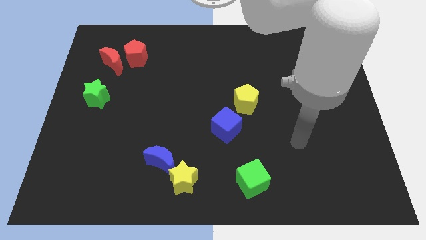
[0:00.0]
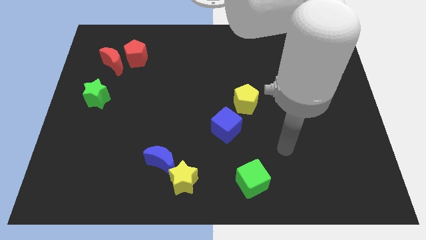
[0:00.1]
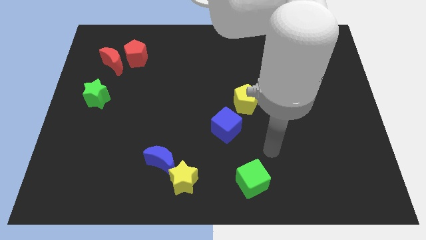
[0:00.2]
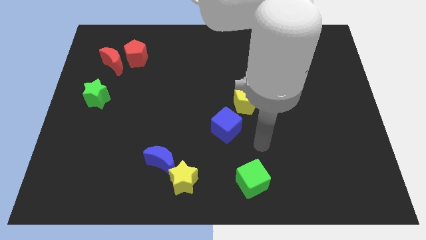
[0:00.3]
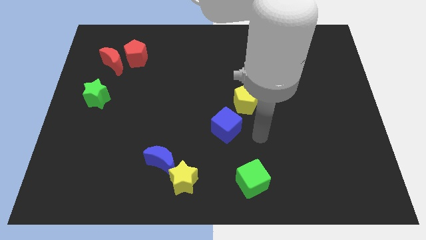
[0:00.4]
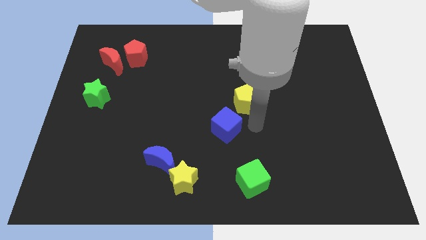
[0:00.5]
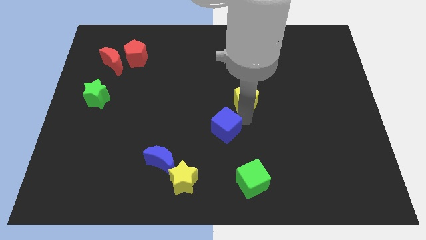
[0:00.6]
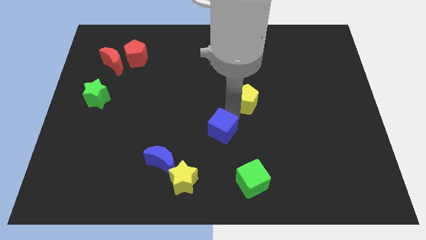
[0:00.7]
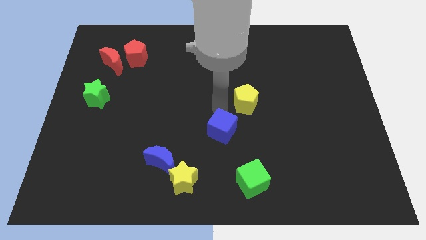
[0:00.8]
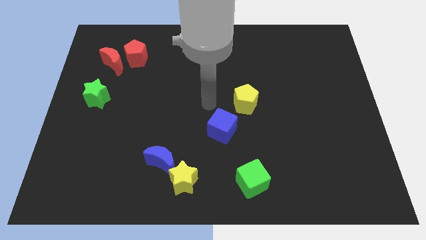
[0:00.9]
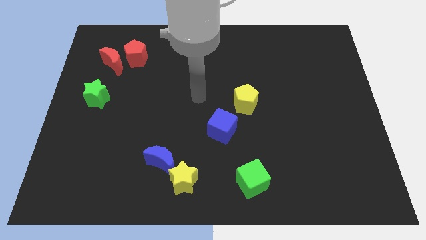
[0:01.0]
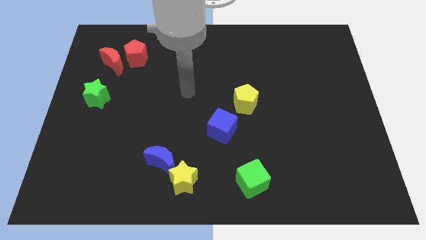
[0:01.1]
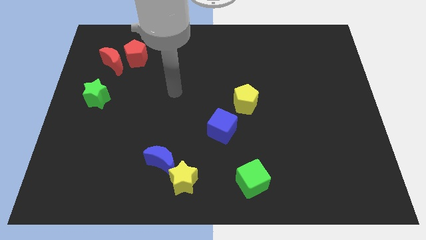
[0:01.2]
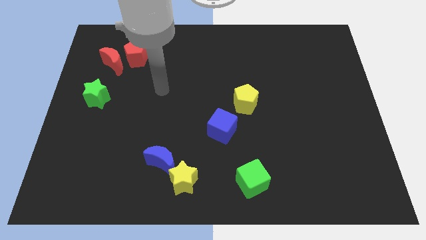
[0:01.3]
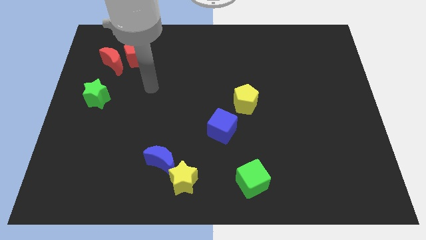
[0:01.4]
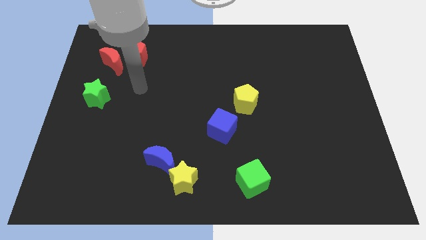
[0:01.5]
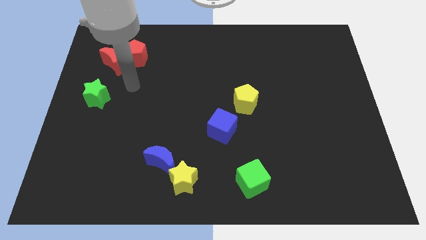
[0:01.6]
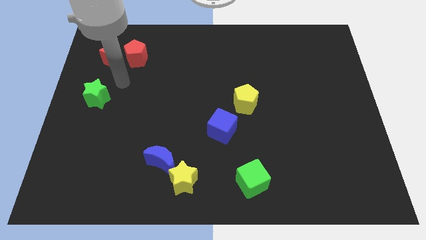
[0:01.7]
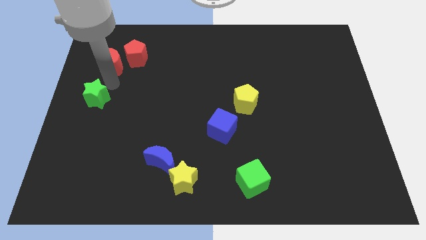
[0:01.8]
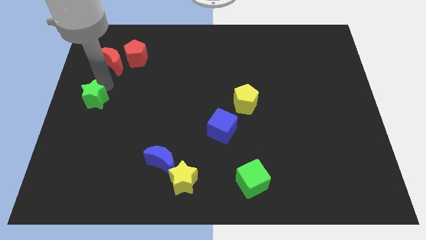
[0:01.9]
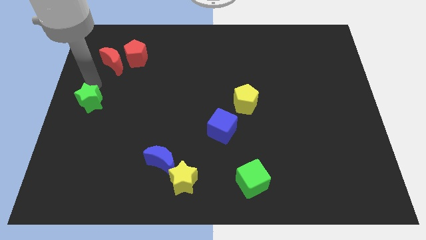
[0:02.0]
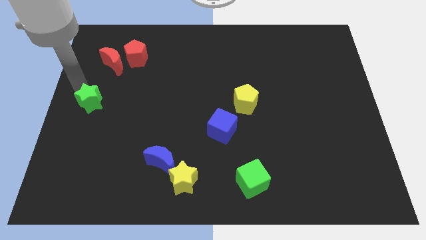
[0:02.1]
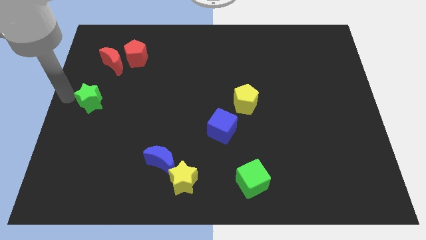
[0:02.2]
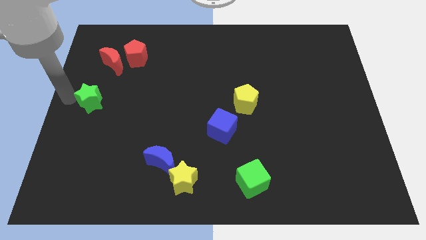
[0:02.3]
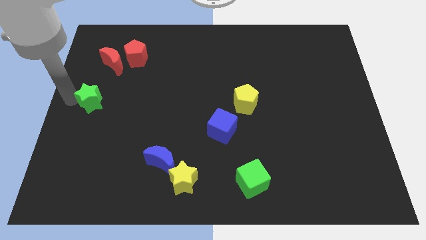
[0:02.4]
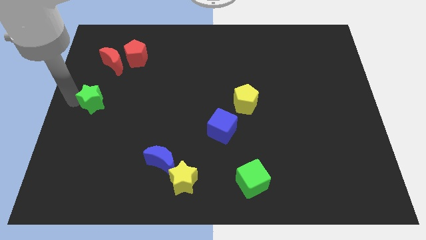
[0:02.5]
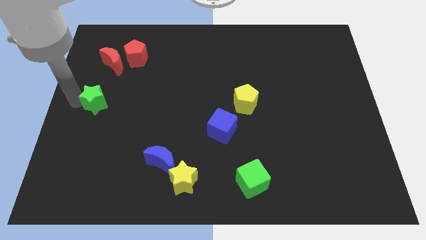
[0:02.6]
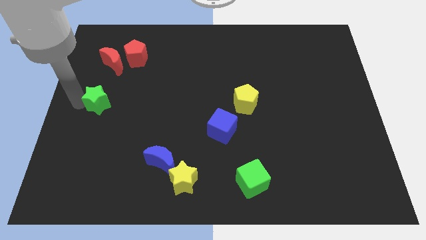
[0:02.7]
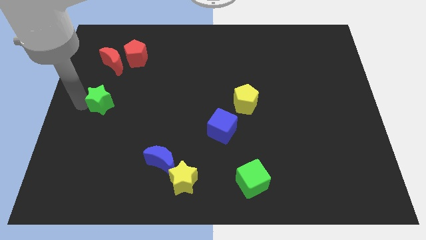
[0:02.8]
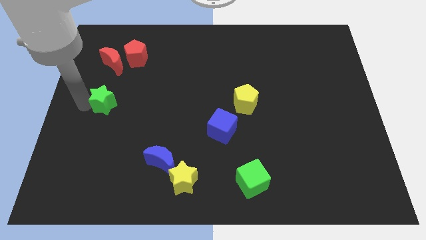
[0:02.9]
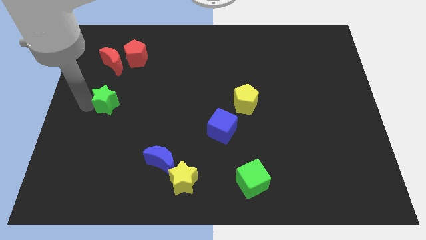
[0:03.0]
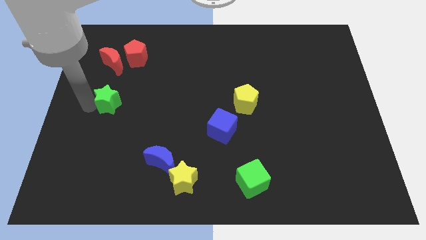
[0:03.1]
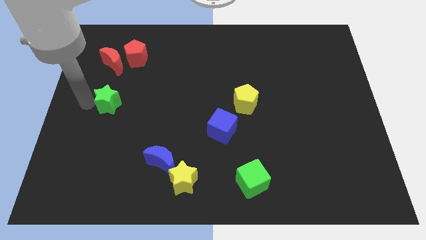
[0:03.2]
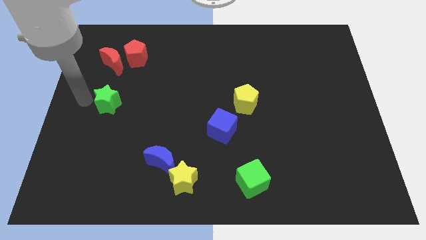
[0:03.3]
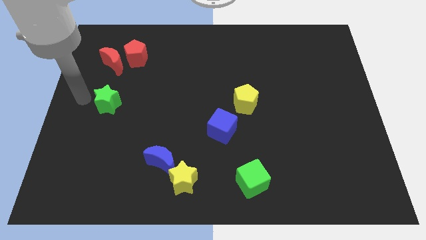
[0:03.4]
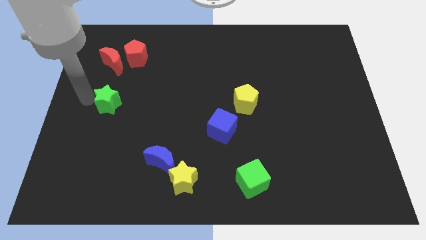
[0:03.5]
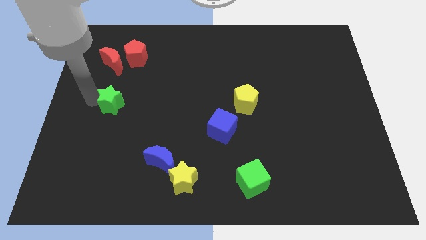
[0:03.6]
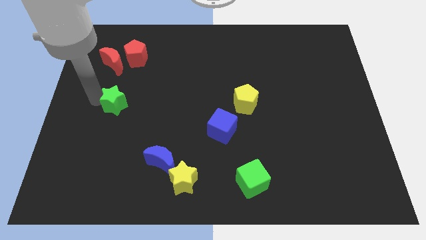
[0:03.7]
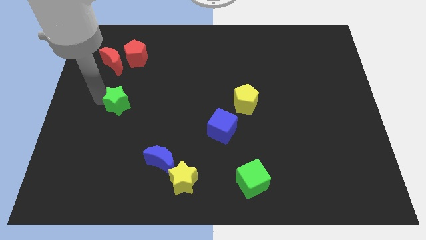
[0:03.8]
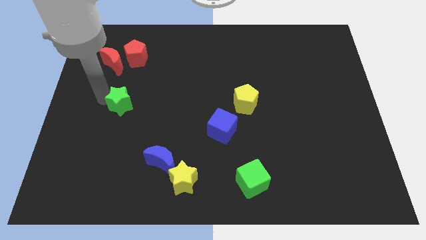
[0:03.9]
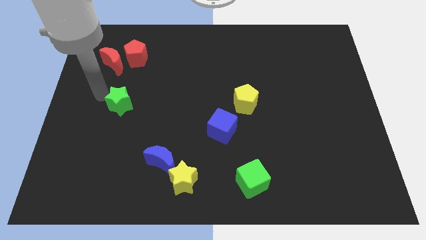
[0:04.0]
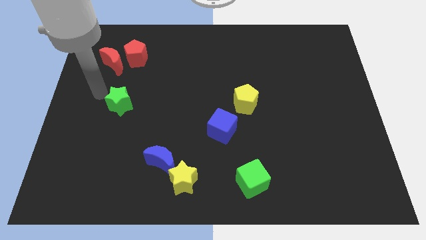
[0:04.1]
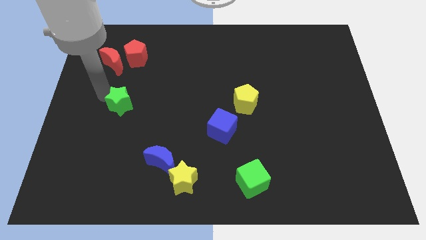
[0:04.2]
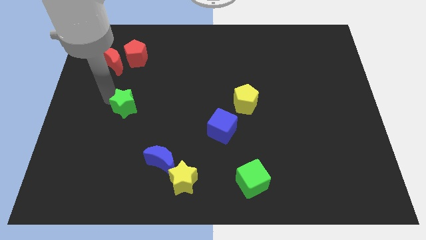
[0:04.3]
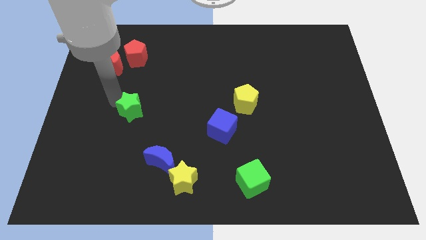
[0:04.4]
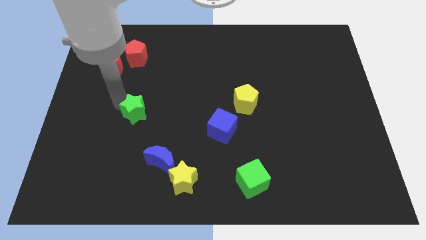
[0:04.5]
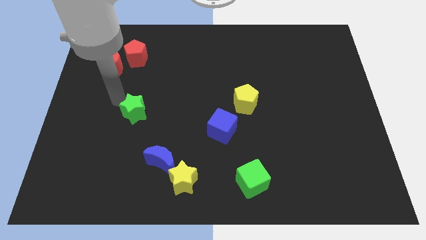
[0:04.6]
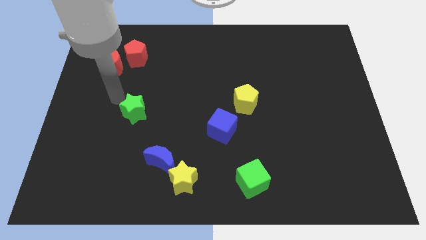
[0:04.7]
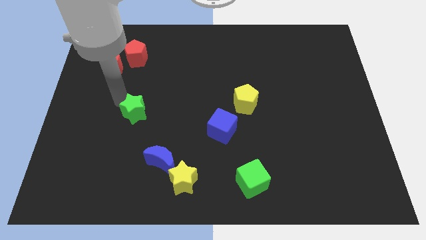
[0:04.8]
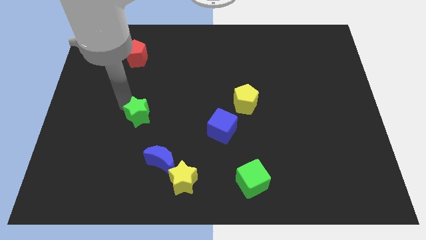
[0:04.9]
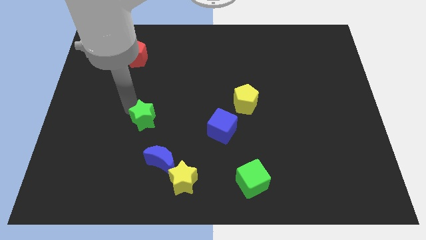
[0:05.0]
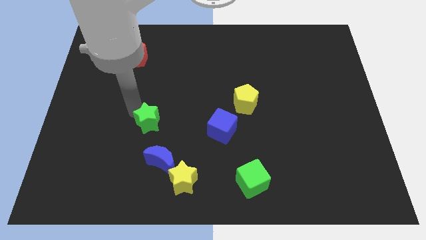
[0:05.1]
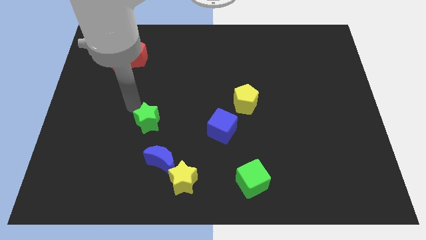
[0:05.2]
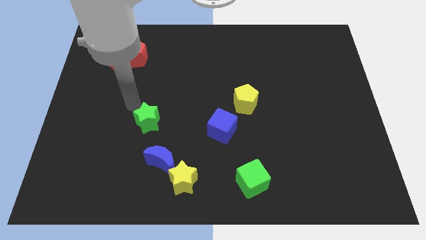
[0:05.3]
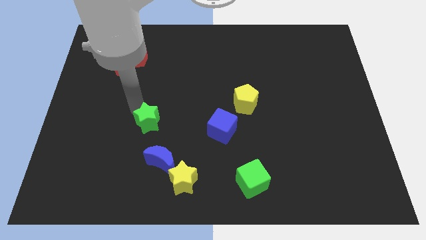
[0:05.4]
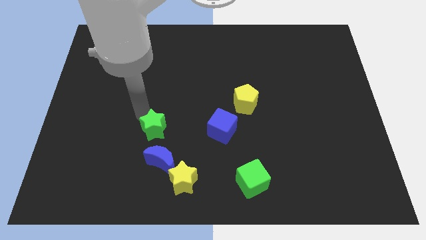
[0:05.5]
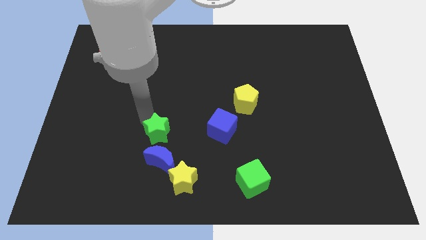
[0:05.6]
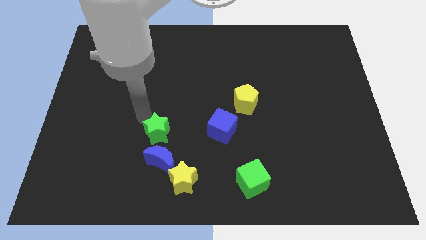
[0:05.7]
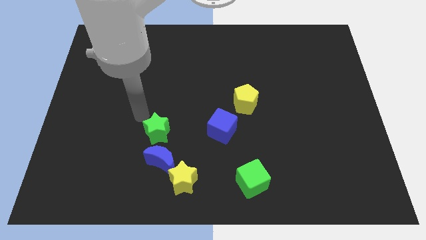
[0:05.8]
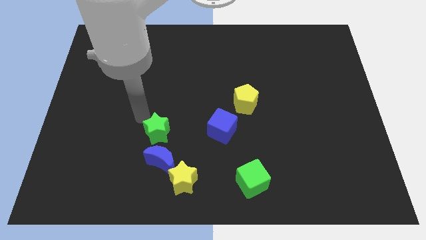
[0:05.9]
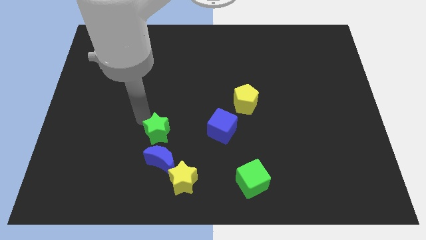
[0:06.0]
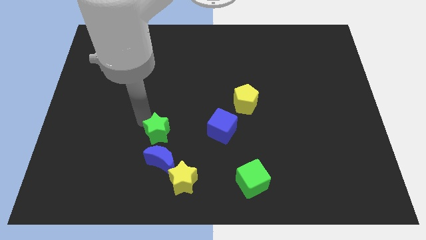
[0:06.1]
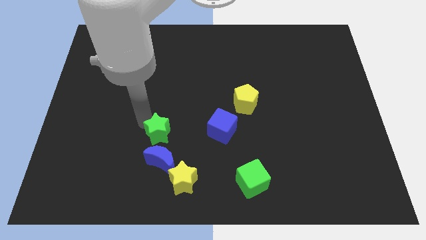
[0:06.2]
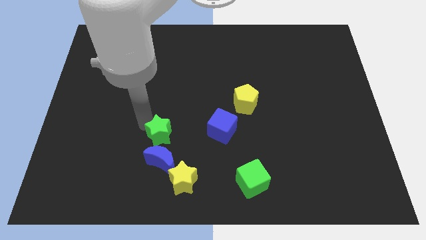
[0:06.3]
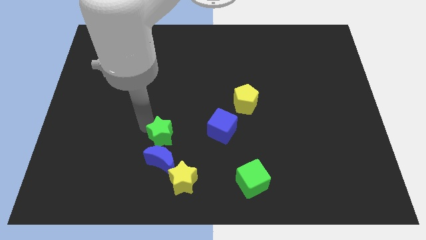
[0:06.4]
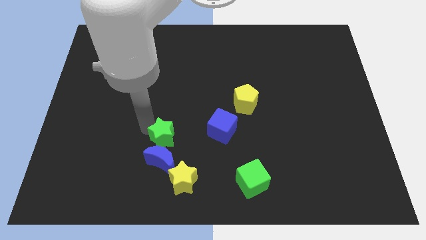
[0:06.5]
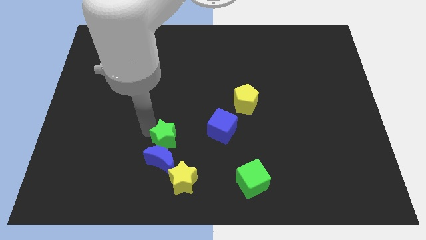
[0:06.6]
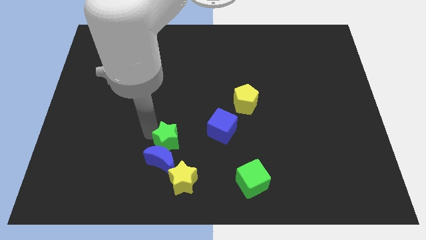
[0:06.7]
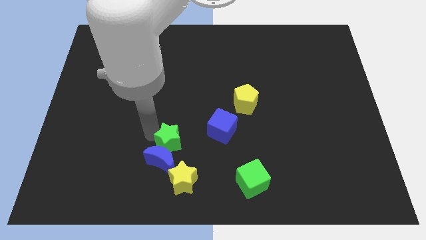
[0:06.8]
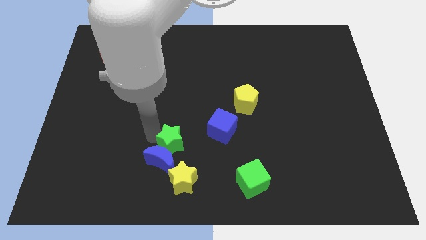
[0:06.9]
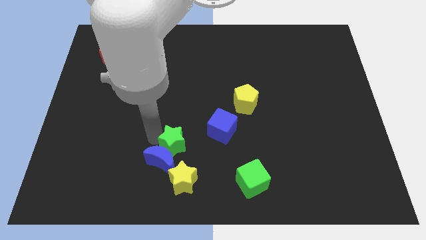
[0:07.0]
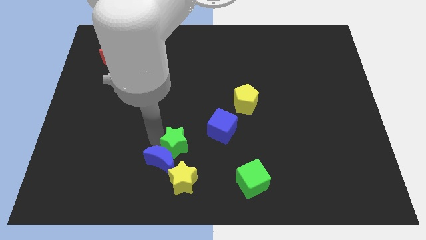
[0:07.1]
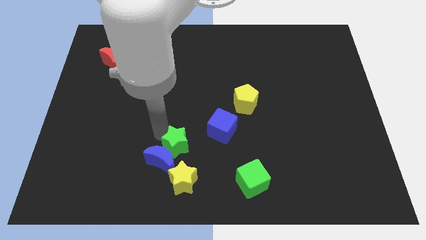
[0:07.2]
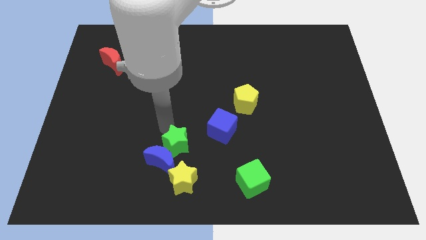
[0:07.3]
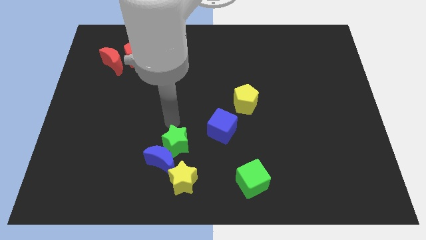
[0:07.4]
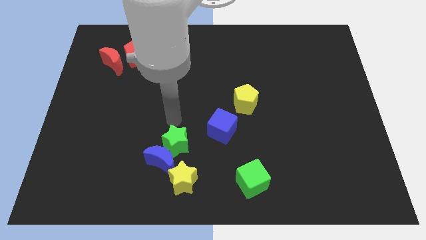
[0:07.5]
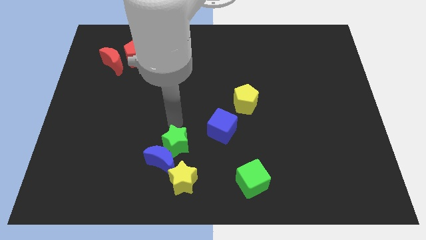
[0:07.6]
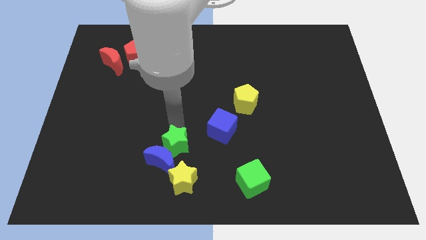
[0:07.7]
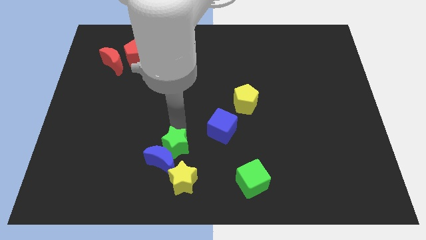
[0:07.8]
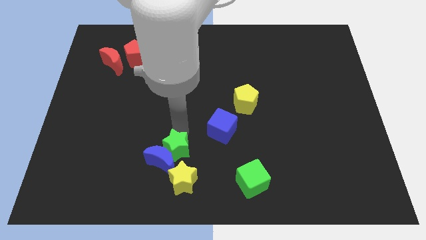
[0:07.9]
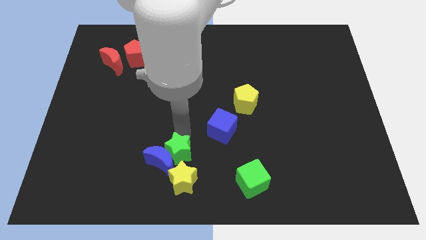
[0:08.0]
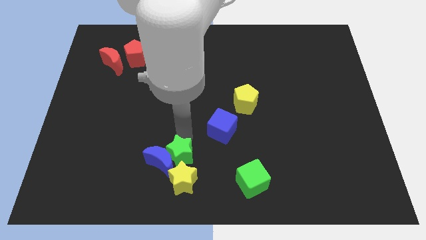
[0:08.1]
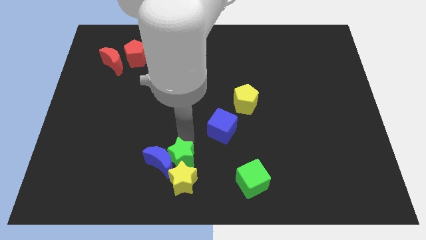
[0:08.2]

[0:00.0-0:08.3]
slide the green star towards the yellow star

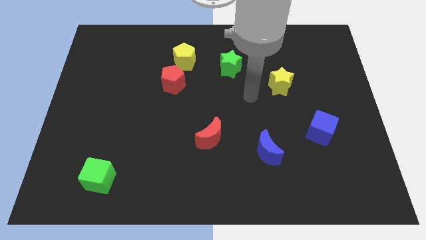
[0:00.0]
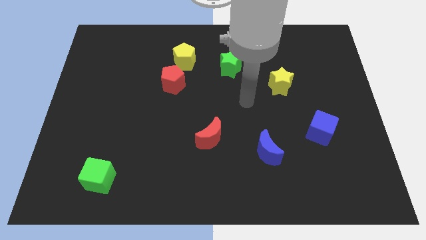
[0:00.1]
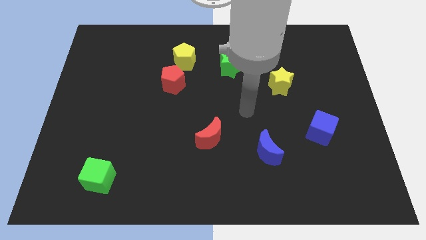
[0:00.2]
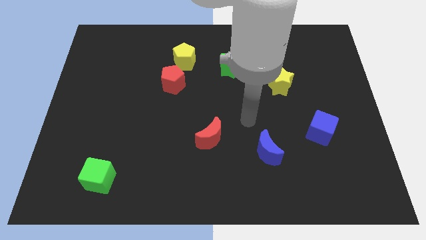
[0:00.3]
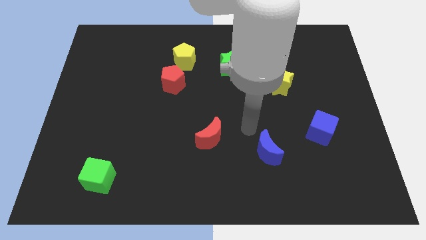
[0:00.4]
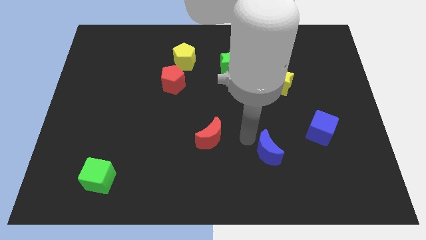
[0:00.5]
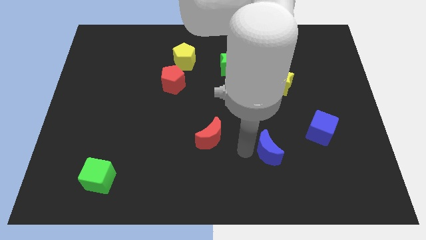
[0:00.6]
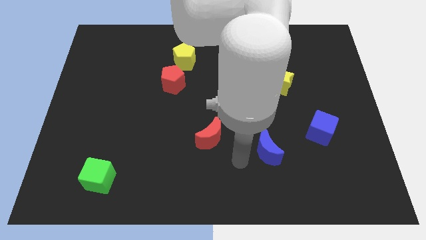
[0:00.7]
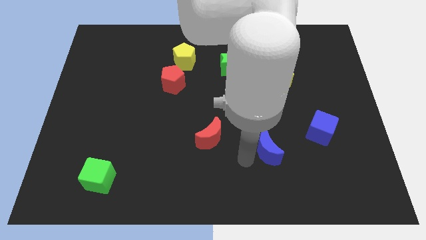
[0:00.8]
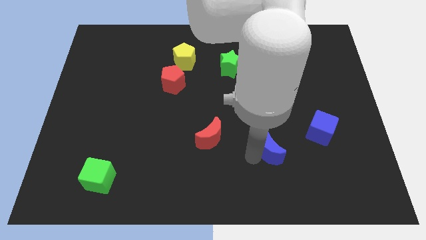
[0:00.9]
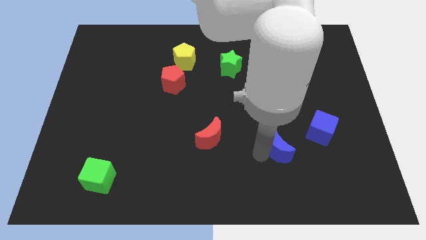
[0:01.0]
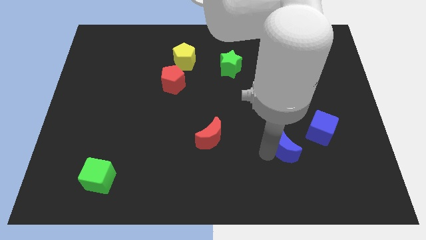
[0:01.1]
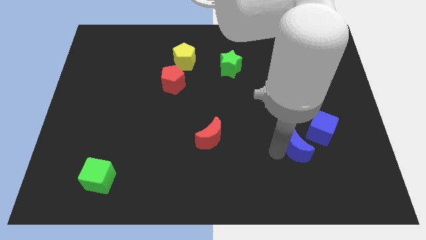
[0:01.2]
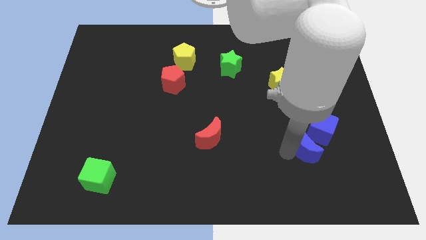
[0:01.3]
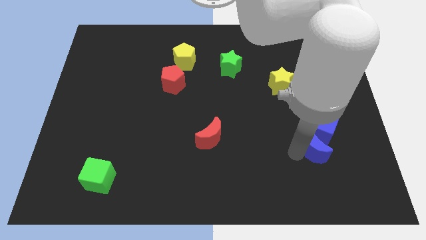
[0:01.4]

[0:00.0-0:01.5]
move the blue moon to the blue cube
